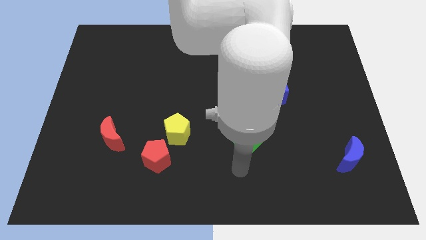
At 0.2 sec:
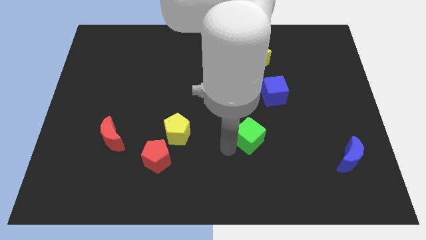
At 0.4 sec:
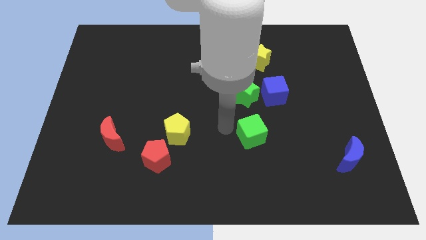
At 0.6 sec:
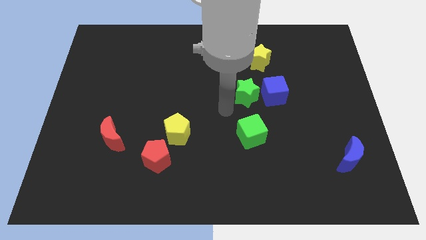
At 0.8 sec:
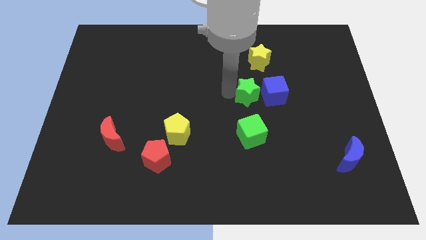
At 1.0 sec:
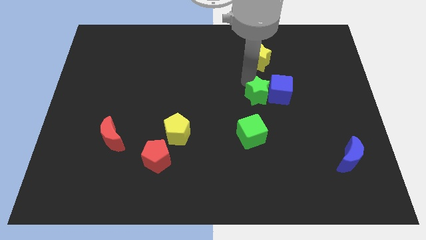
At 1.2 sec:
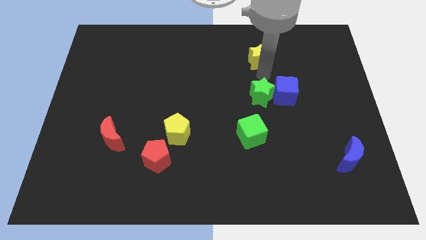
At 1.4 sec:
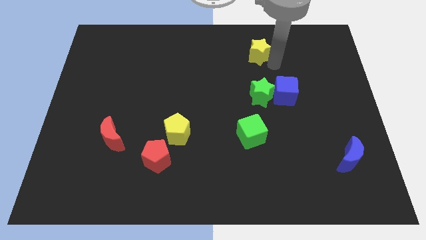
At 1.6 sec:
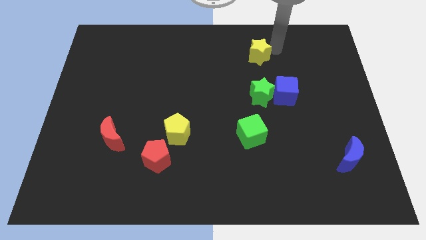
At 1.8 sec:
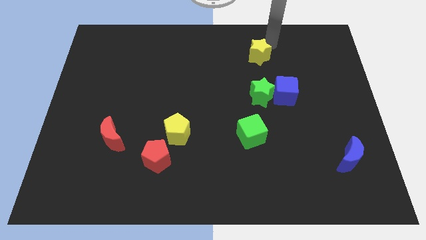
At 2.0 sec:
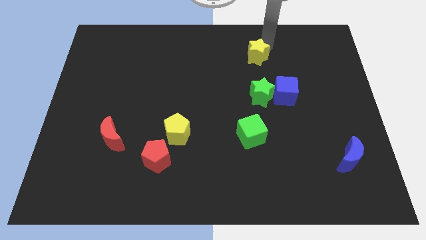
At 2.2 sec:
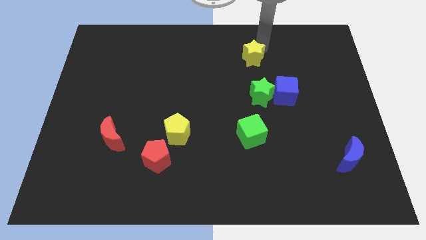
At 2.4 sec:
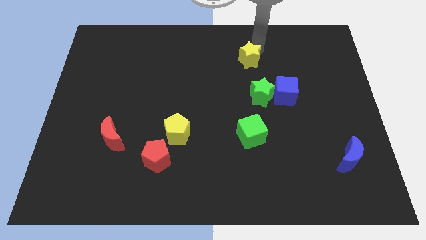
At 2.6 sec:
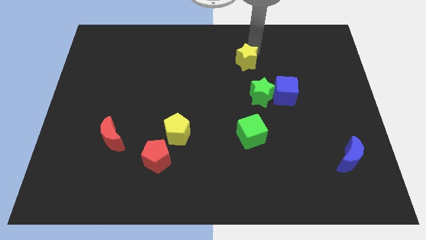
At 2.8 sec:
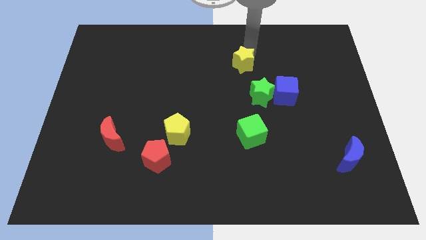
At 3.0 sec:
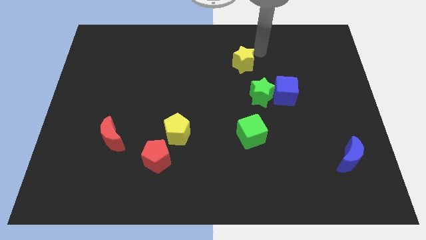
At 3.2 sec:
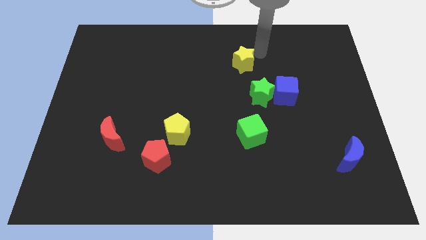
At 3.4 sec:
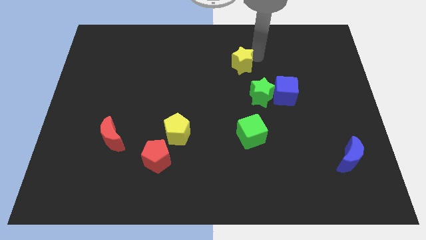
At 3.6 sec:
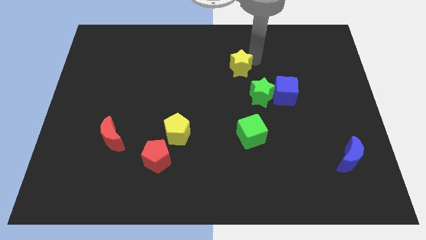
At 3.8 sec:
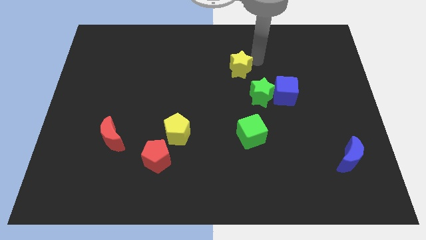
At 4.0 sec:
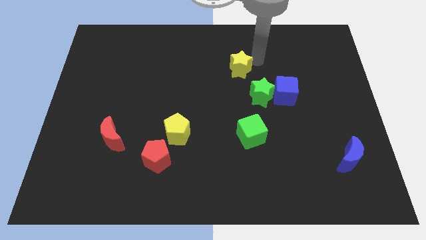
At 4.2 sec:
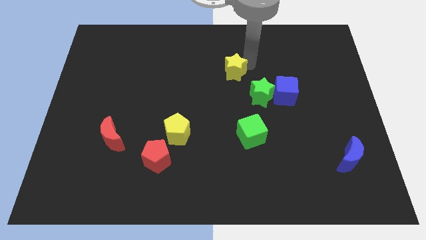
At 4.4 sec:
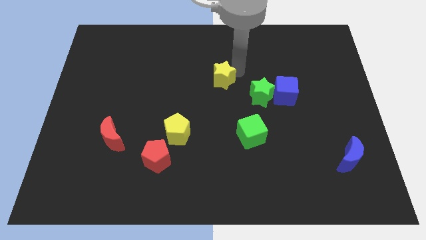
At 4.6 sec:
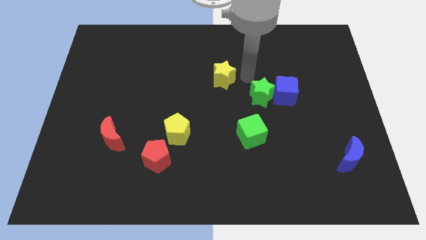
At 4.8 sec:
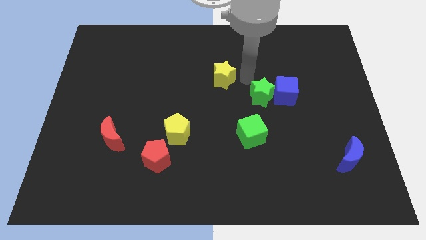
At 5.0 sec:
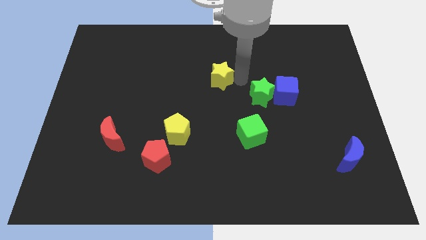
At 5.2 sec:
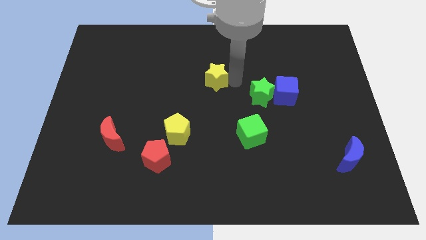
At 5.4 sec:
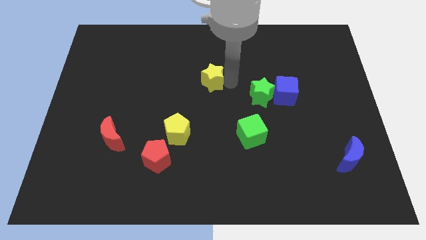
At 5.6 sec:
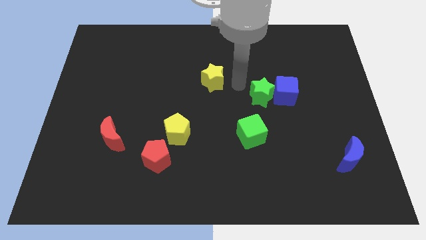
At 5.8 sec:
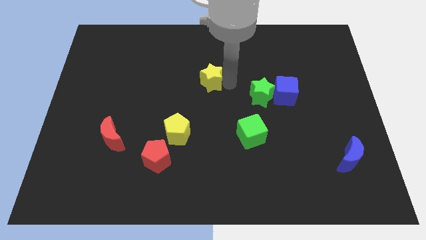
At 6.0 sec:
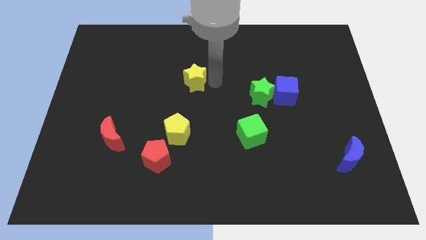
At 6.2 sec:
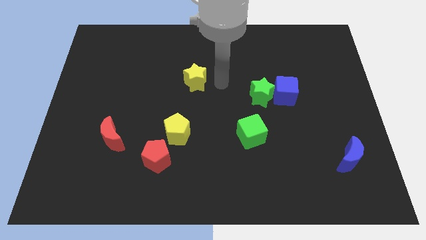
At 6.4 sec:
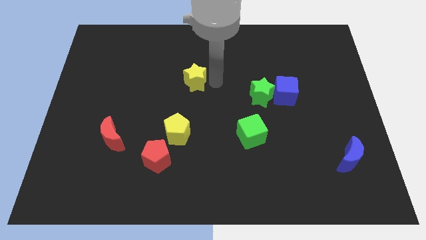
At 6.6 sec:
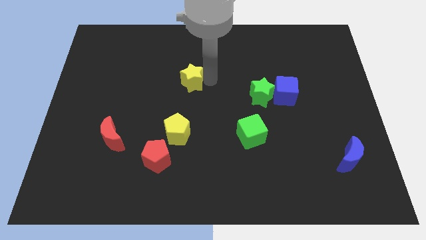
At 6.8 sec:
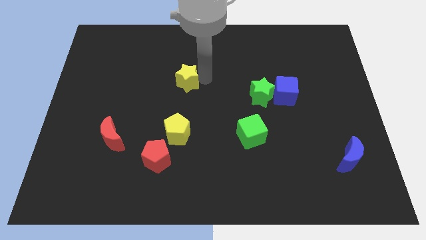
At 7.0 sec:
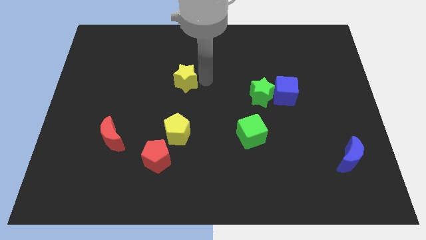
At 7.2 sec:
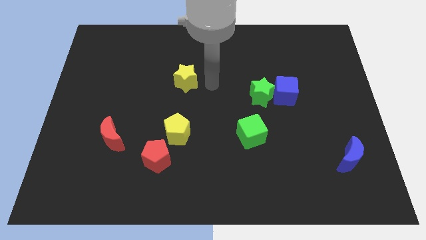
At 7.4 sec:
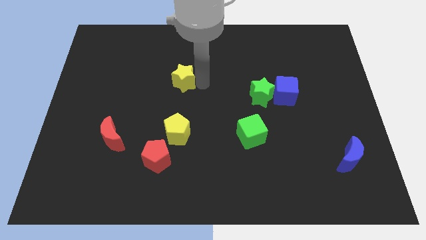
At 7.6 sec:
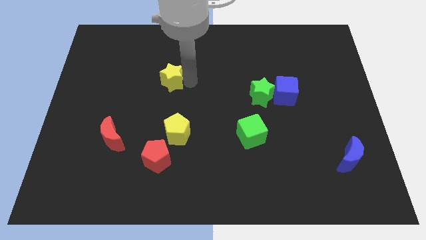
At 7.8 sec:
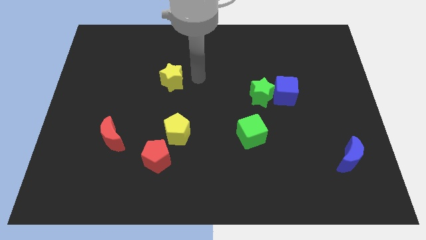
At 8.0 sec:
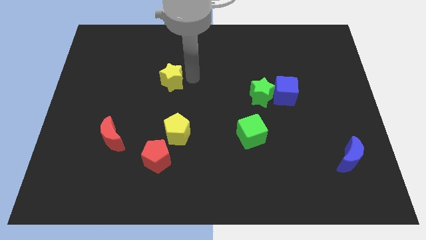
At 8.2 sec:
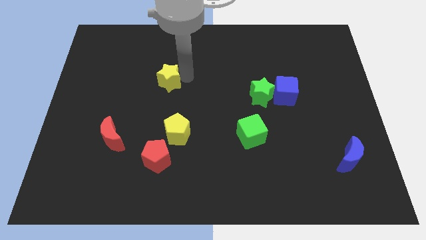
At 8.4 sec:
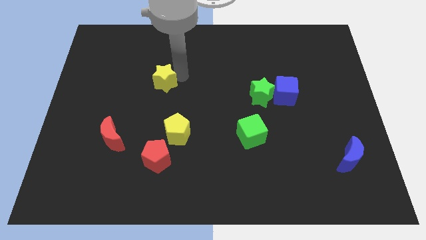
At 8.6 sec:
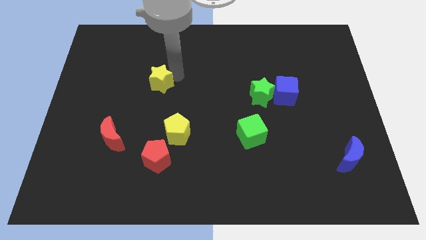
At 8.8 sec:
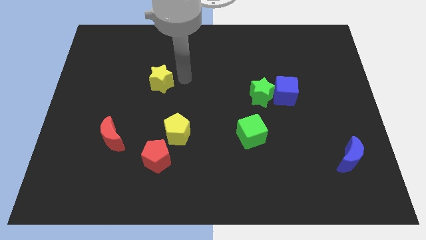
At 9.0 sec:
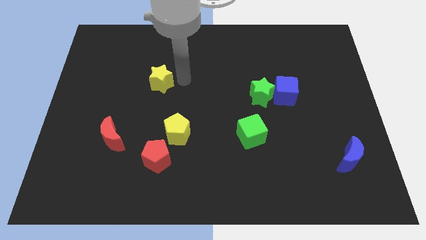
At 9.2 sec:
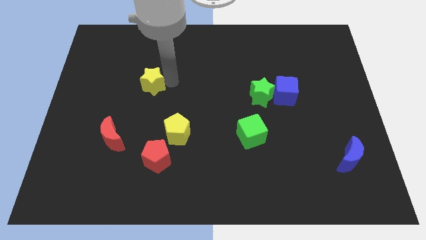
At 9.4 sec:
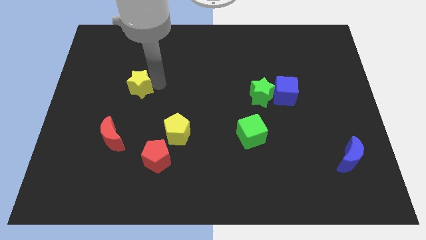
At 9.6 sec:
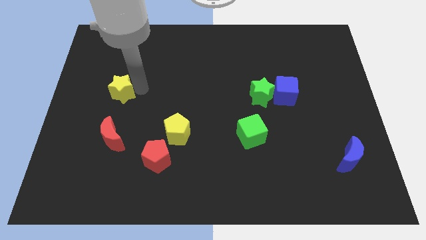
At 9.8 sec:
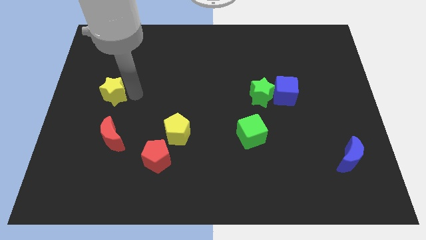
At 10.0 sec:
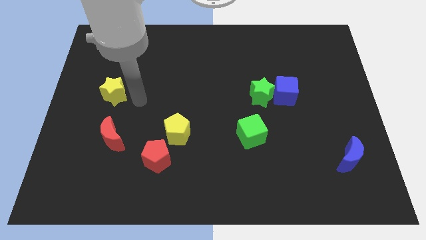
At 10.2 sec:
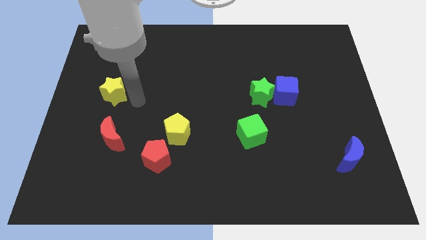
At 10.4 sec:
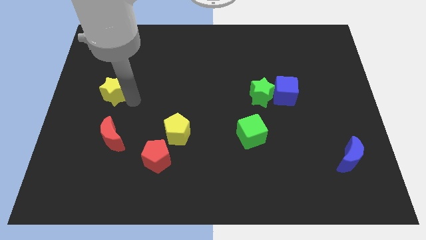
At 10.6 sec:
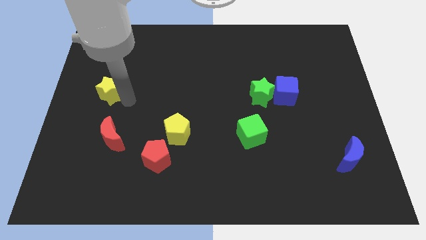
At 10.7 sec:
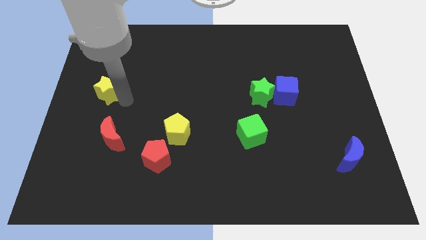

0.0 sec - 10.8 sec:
move the yellow star to the left side
